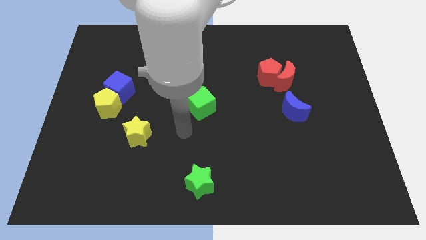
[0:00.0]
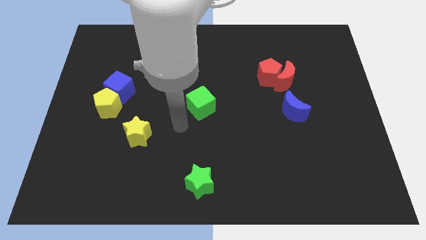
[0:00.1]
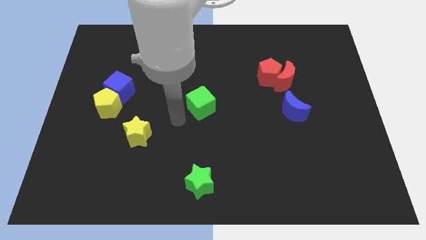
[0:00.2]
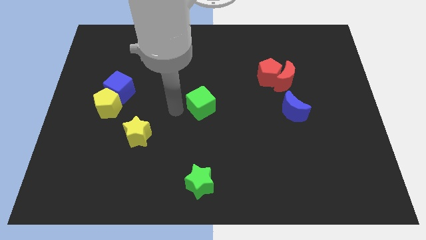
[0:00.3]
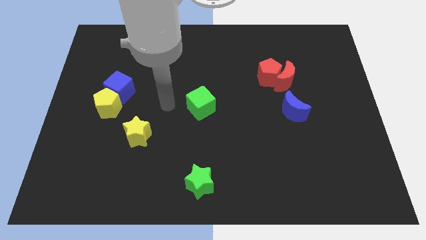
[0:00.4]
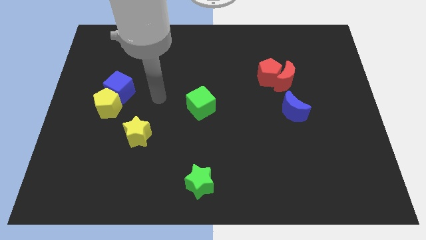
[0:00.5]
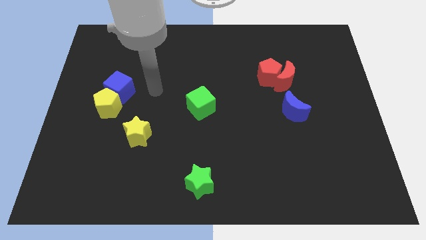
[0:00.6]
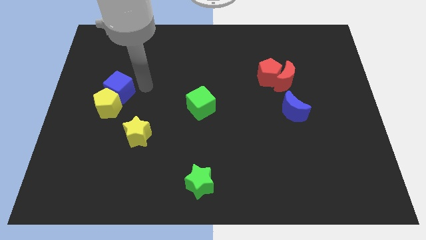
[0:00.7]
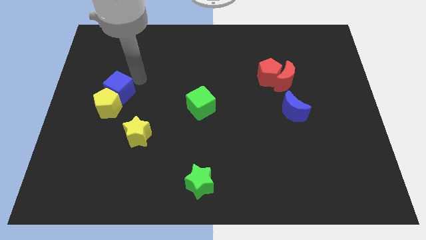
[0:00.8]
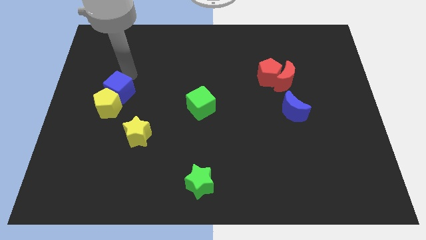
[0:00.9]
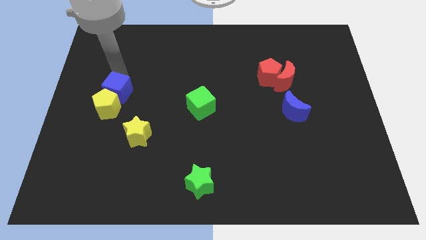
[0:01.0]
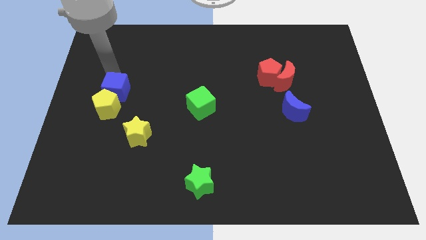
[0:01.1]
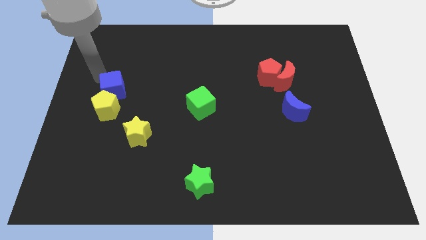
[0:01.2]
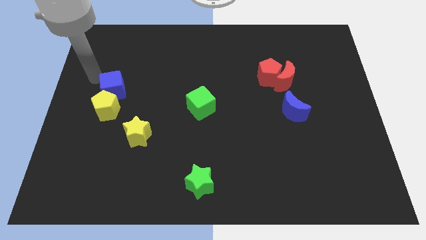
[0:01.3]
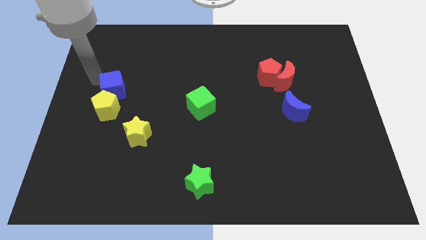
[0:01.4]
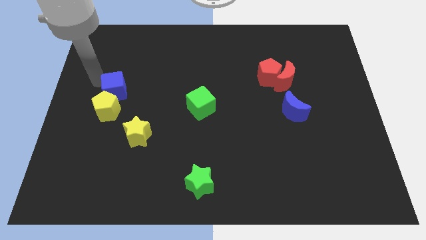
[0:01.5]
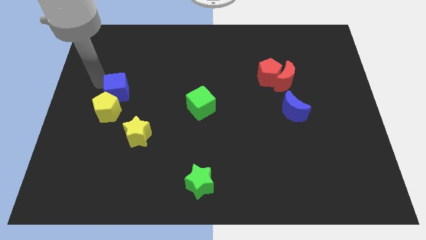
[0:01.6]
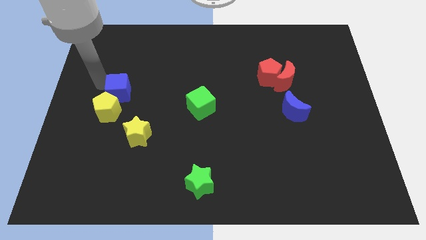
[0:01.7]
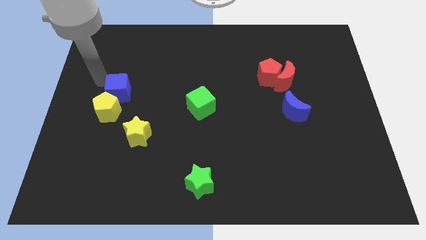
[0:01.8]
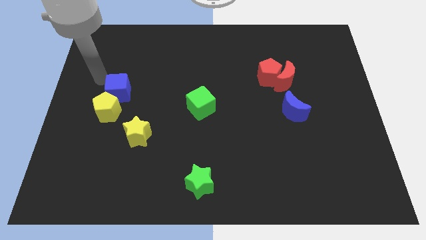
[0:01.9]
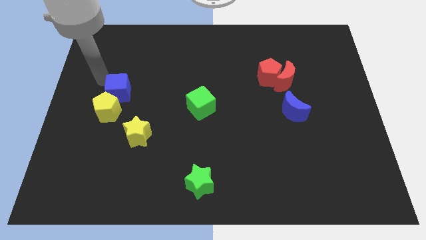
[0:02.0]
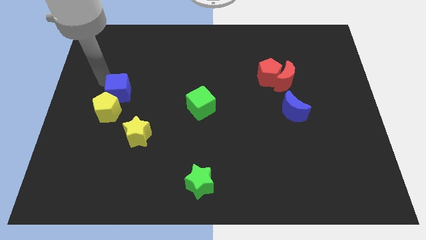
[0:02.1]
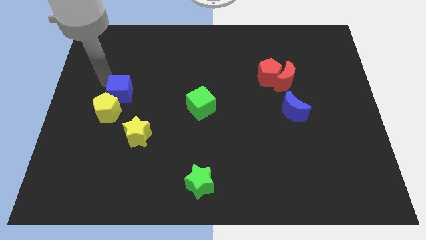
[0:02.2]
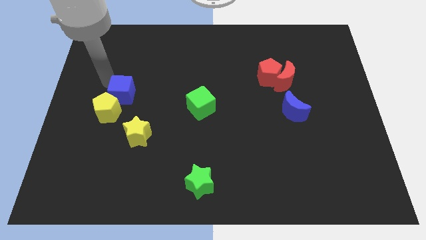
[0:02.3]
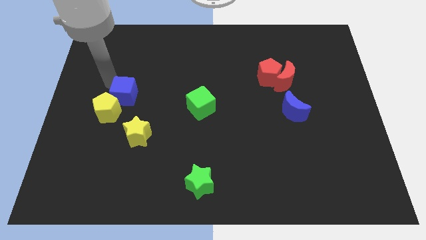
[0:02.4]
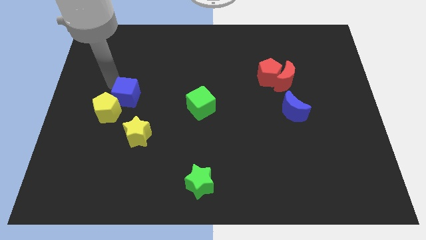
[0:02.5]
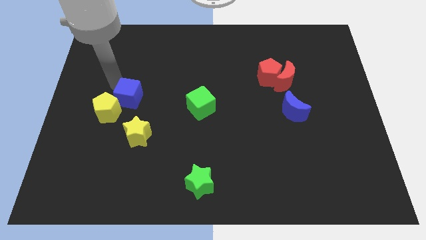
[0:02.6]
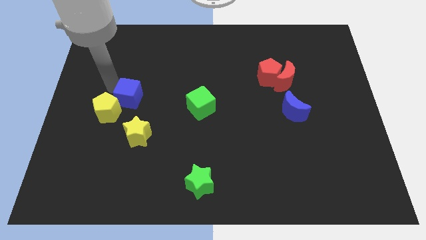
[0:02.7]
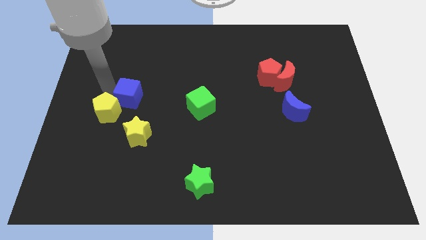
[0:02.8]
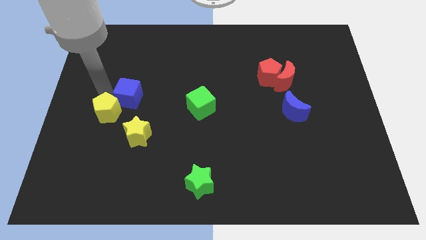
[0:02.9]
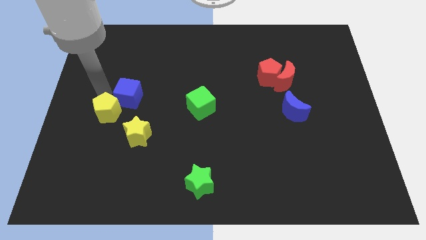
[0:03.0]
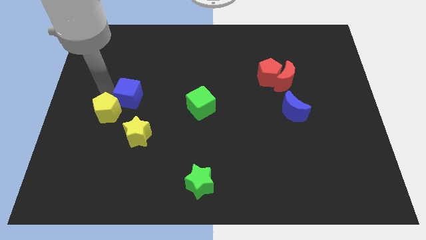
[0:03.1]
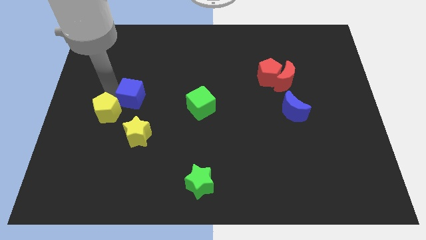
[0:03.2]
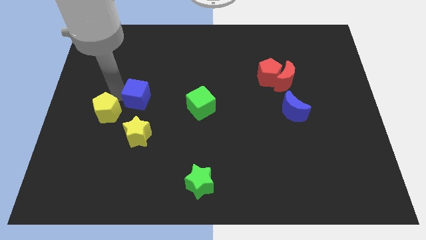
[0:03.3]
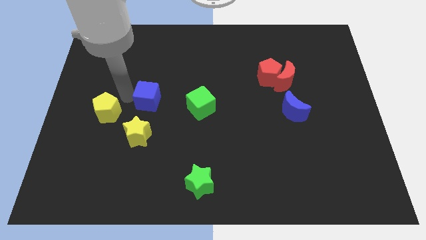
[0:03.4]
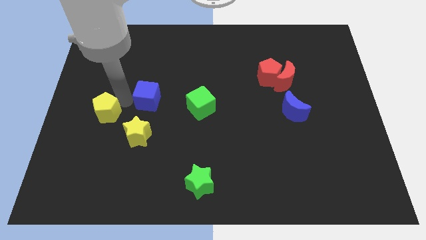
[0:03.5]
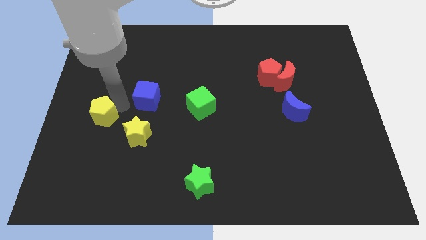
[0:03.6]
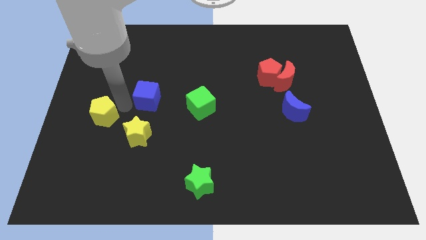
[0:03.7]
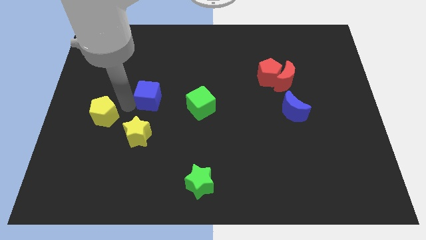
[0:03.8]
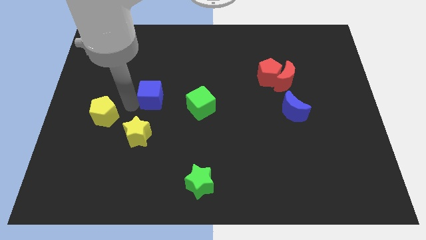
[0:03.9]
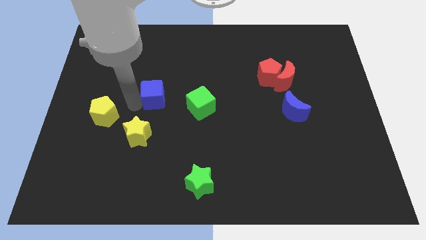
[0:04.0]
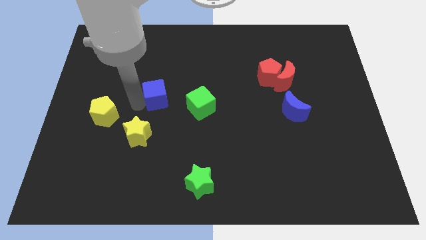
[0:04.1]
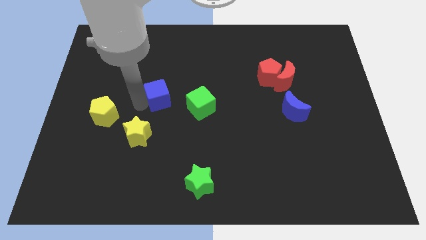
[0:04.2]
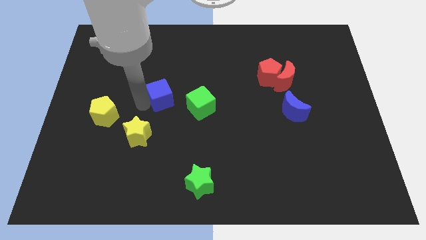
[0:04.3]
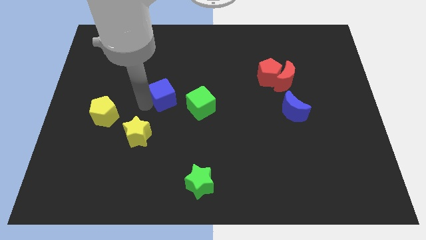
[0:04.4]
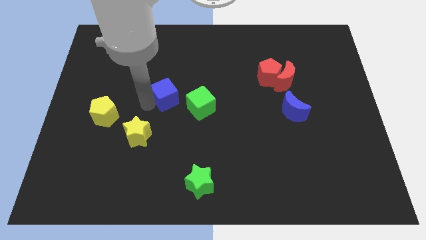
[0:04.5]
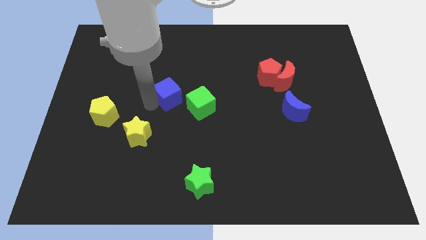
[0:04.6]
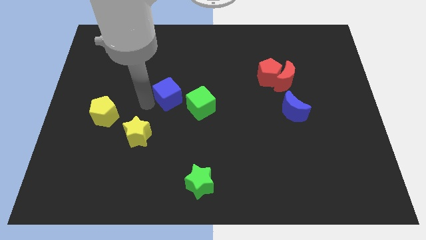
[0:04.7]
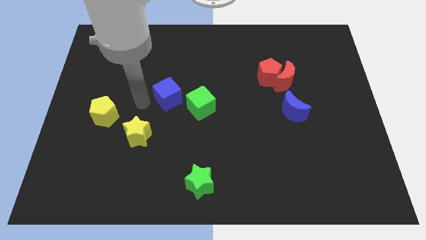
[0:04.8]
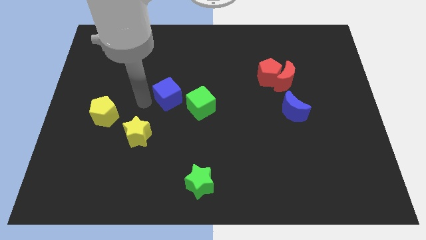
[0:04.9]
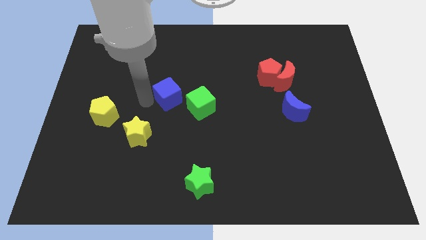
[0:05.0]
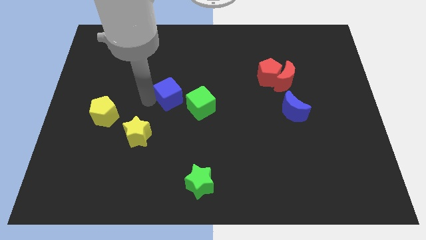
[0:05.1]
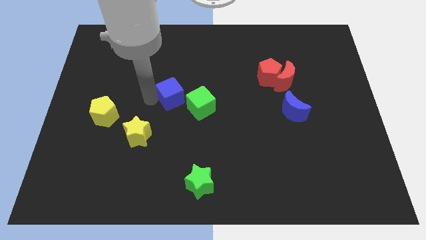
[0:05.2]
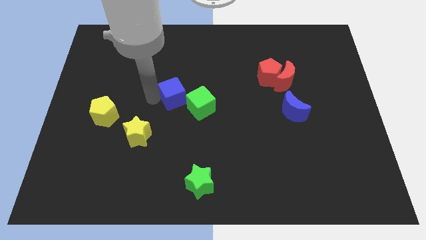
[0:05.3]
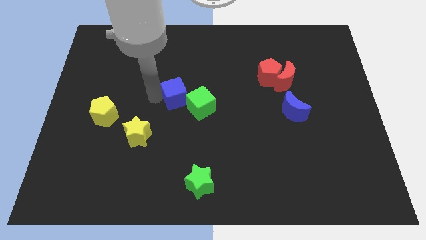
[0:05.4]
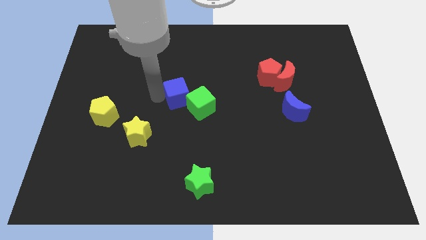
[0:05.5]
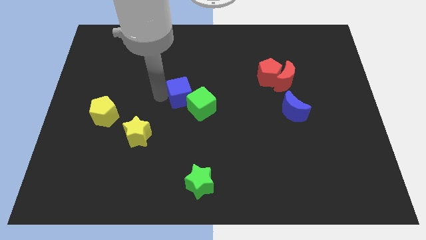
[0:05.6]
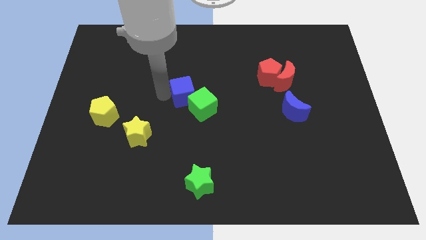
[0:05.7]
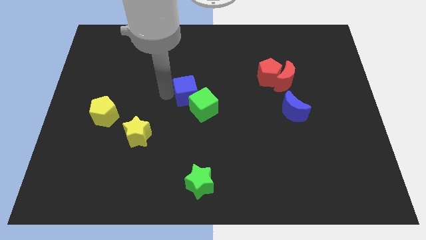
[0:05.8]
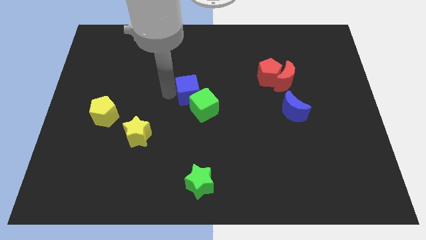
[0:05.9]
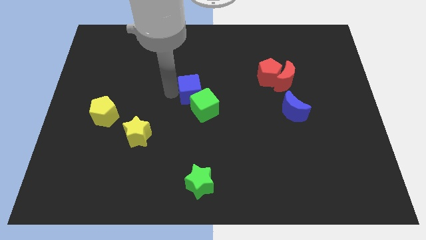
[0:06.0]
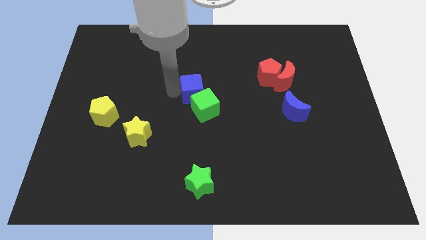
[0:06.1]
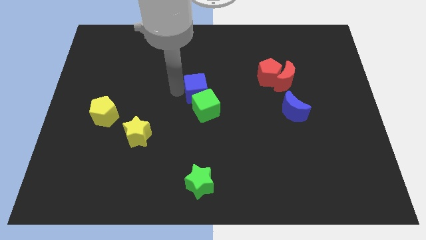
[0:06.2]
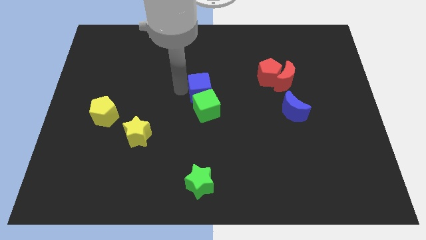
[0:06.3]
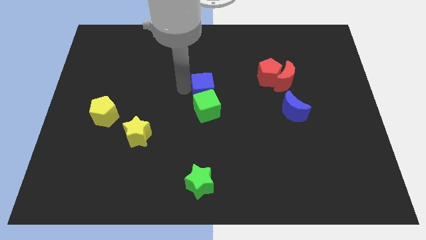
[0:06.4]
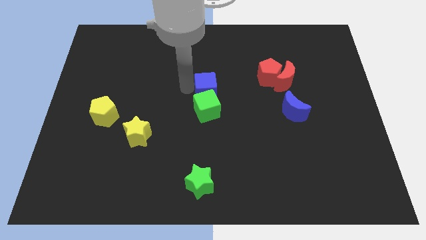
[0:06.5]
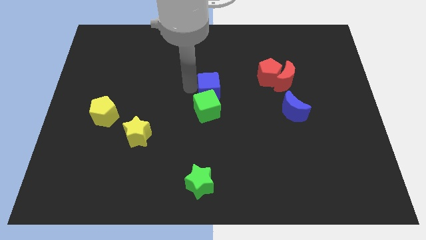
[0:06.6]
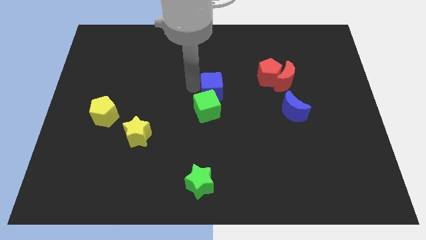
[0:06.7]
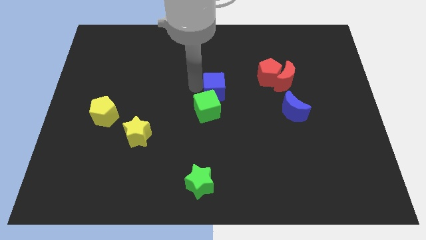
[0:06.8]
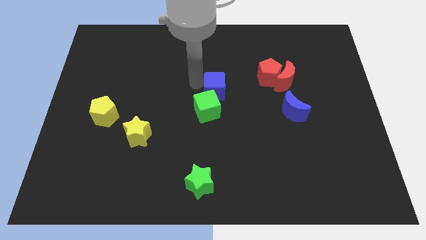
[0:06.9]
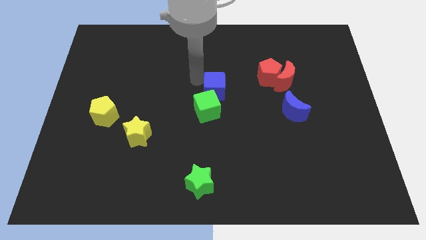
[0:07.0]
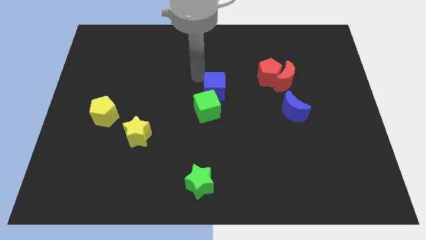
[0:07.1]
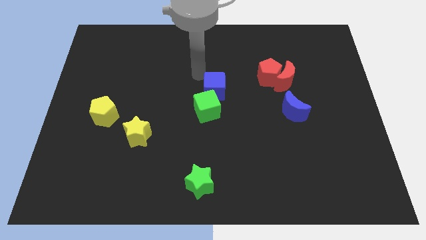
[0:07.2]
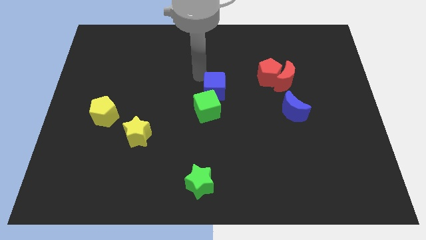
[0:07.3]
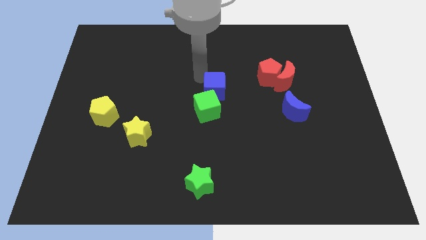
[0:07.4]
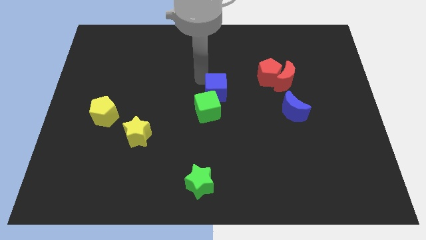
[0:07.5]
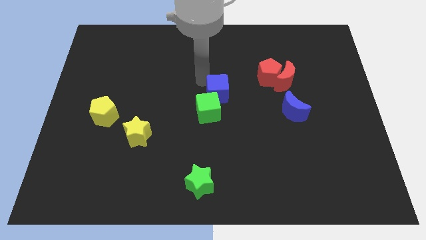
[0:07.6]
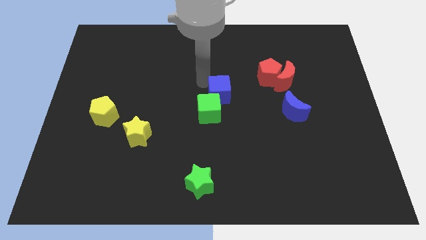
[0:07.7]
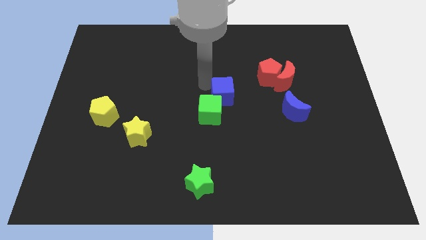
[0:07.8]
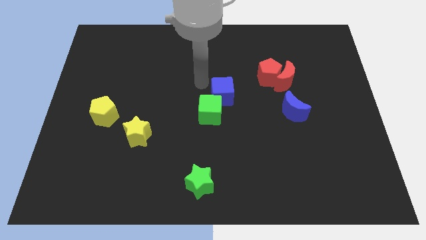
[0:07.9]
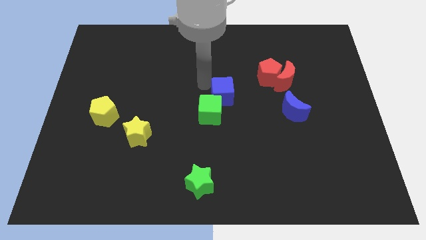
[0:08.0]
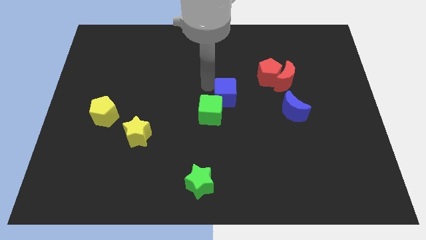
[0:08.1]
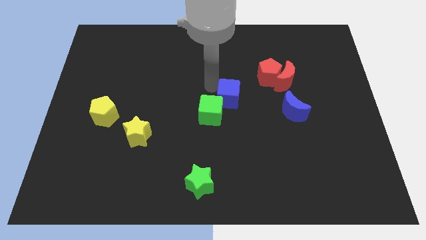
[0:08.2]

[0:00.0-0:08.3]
move the blue cube right of the green cube
